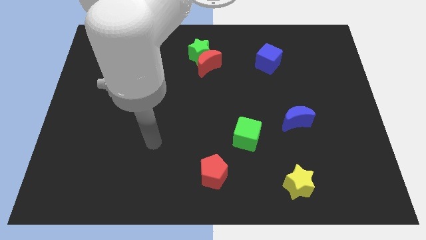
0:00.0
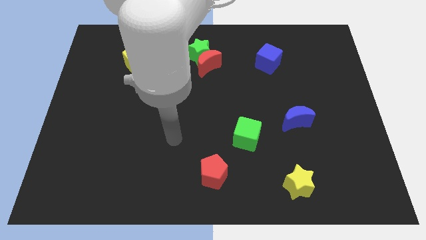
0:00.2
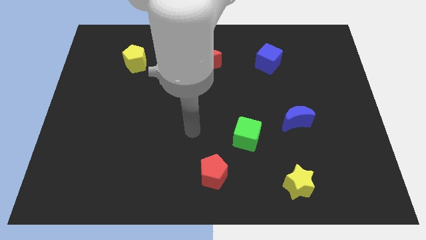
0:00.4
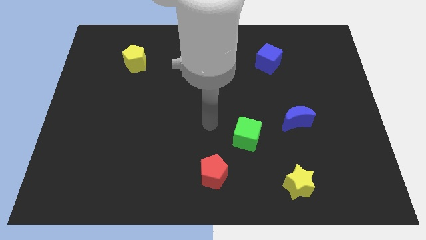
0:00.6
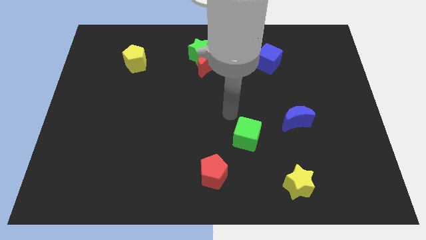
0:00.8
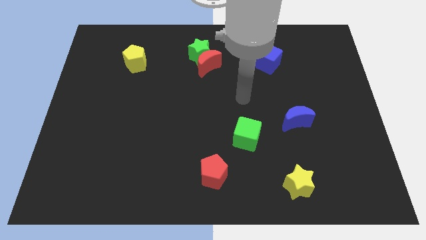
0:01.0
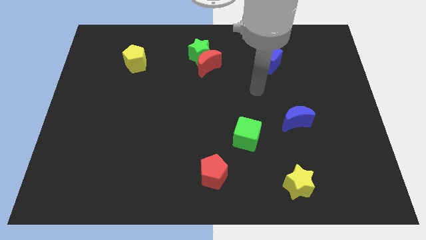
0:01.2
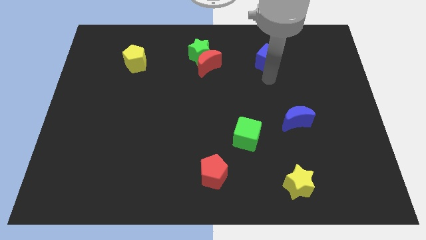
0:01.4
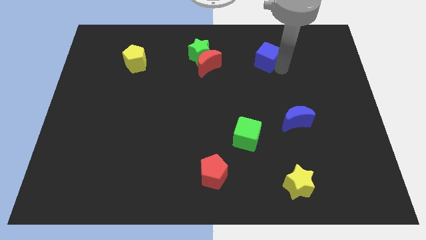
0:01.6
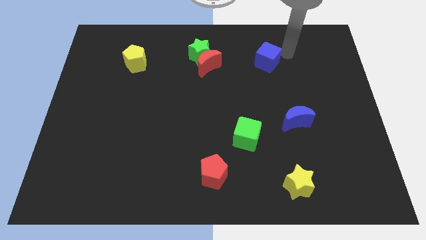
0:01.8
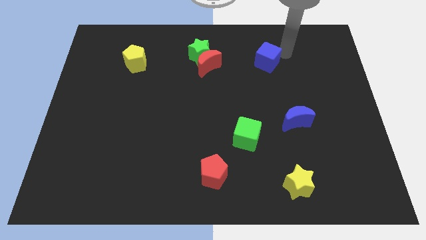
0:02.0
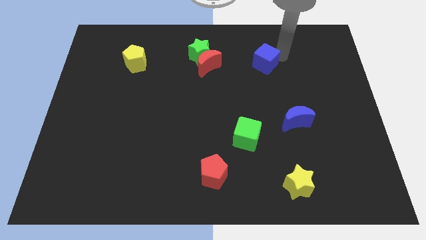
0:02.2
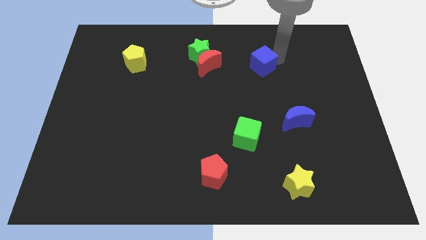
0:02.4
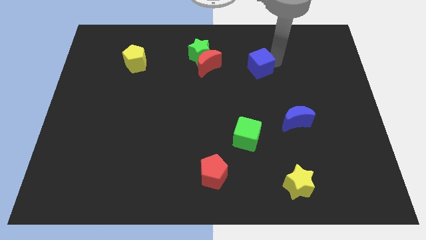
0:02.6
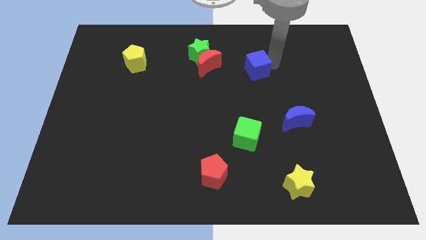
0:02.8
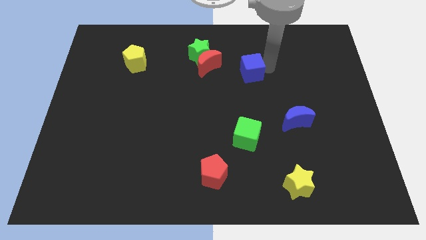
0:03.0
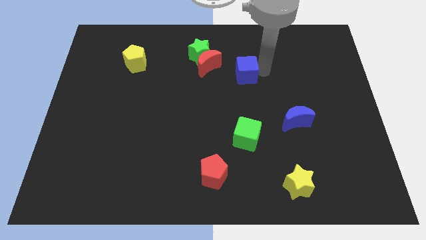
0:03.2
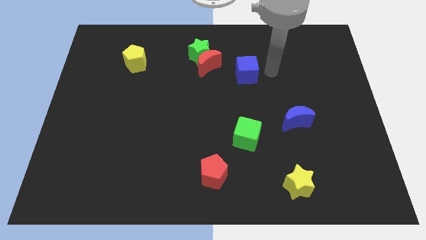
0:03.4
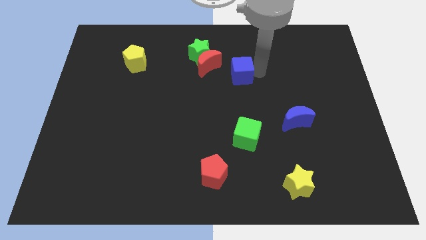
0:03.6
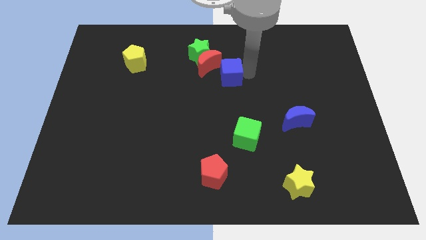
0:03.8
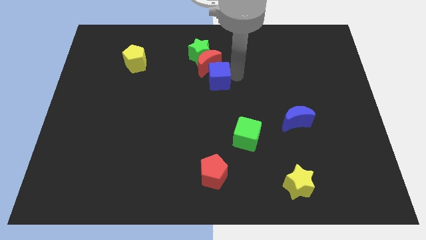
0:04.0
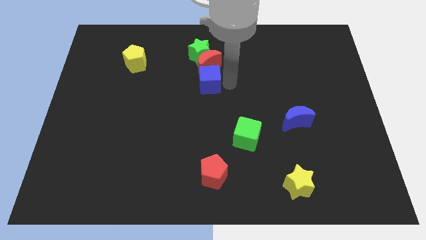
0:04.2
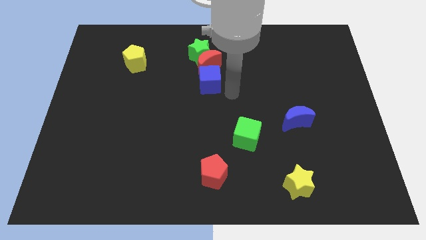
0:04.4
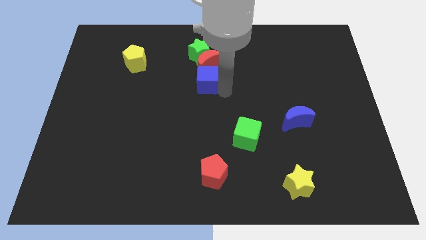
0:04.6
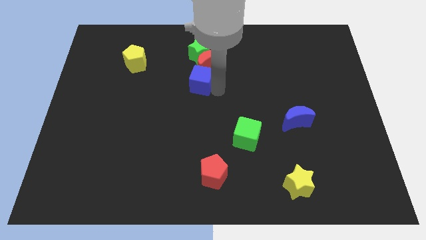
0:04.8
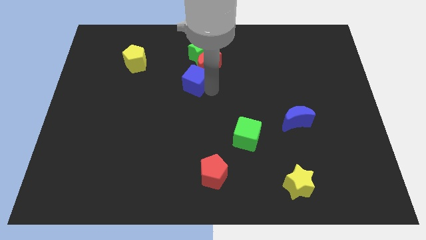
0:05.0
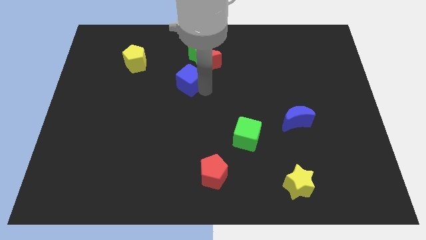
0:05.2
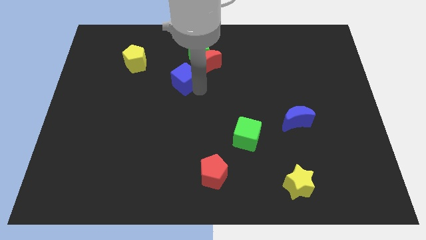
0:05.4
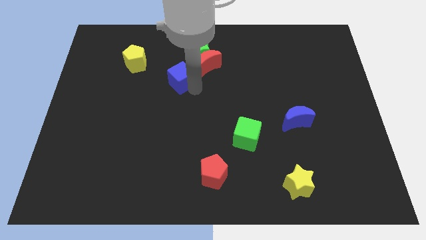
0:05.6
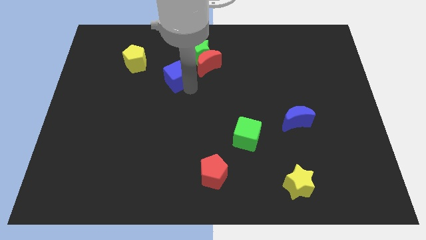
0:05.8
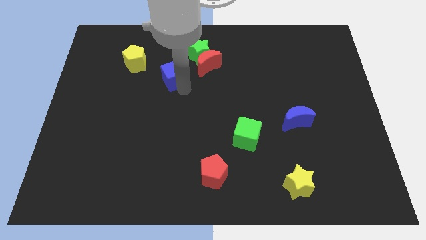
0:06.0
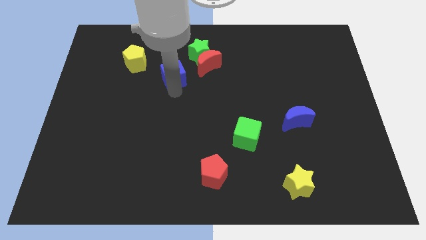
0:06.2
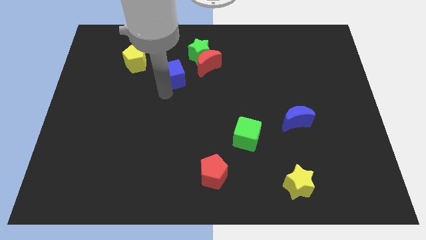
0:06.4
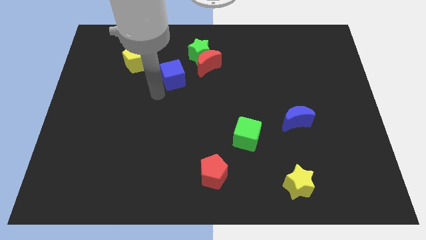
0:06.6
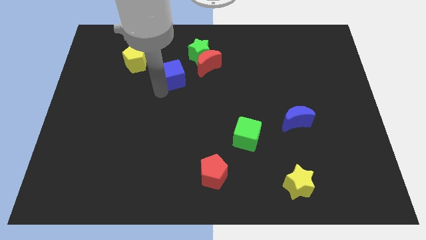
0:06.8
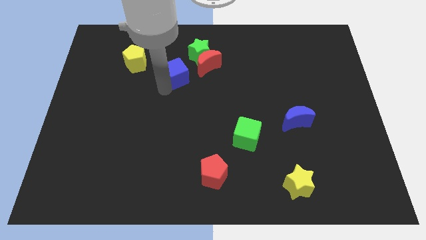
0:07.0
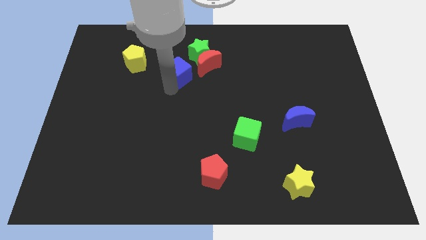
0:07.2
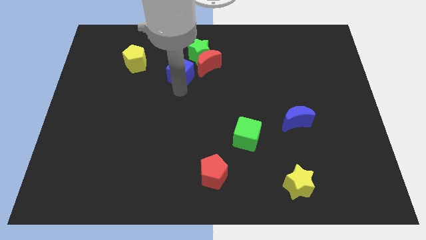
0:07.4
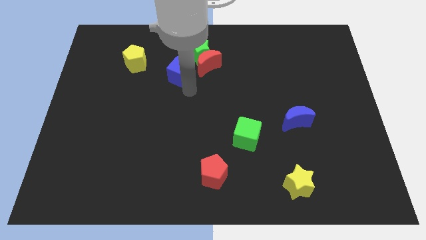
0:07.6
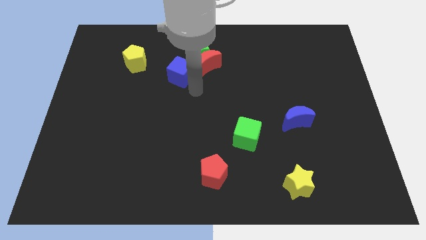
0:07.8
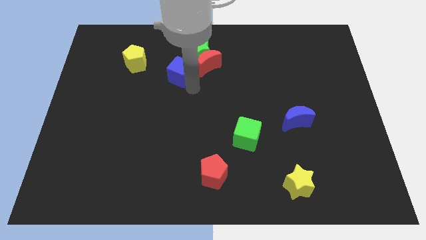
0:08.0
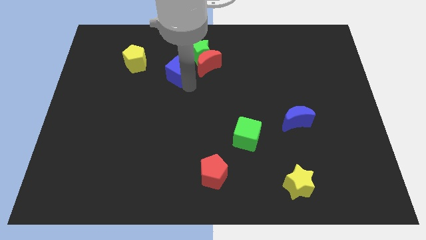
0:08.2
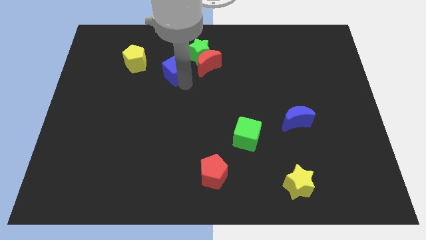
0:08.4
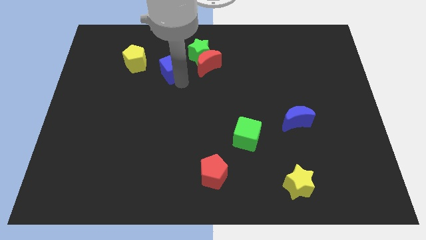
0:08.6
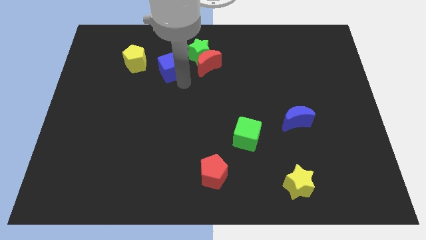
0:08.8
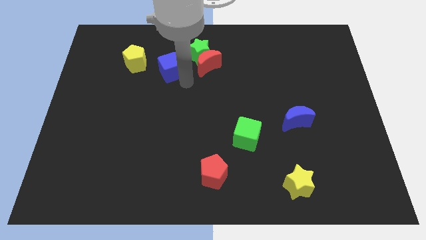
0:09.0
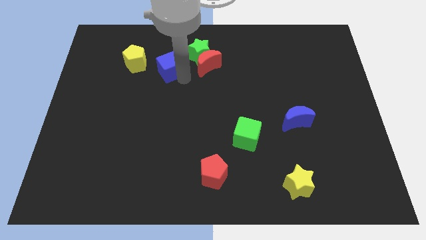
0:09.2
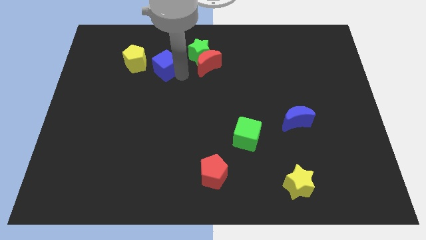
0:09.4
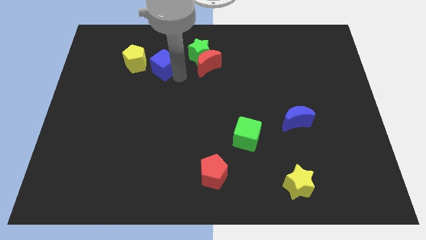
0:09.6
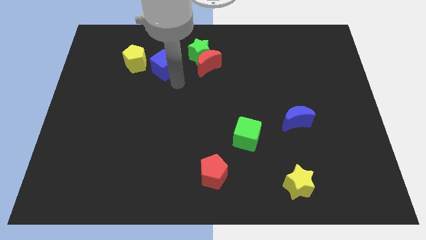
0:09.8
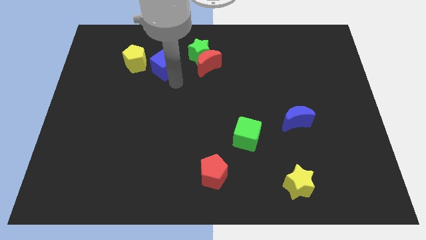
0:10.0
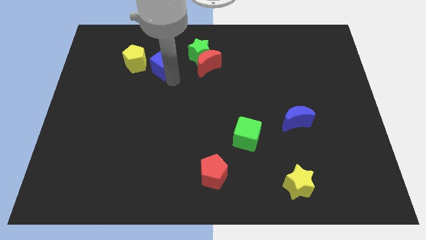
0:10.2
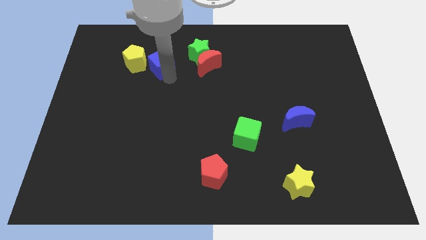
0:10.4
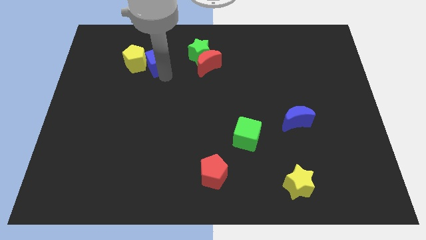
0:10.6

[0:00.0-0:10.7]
slide the blue cube towards the yellow pentagon

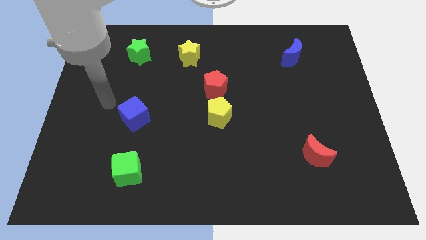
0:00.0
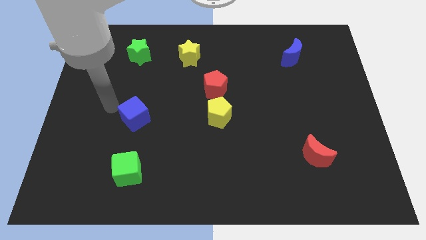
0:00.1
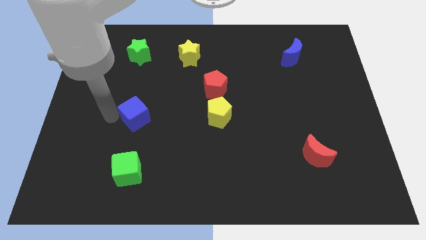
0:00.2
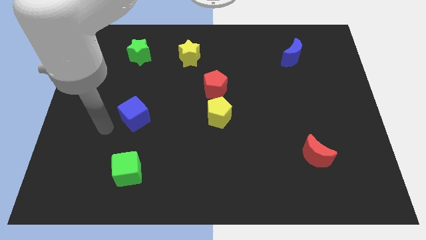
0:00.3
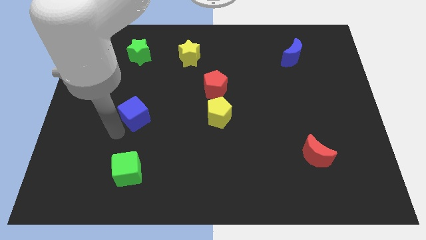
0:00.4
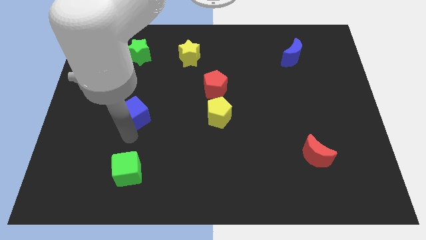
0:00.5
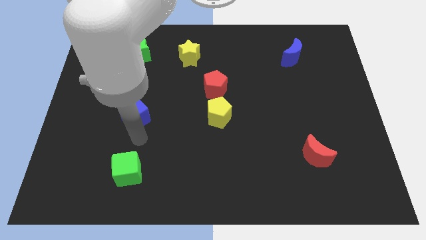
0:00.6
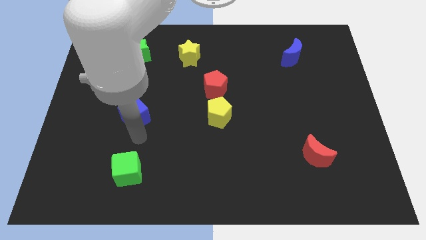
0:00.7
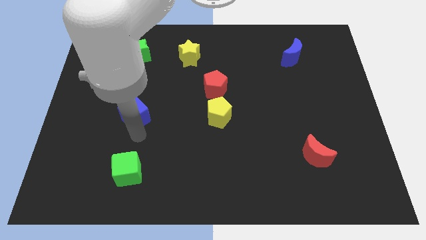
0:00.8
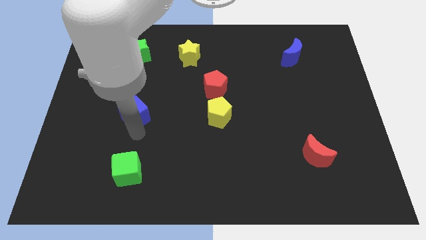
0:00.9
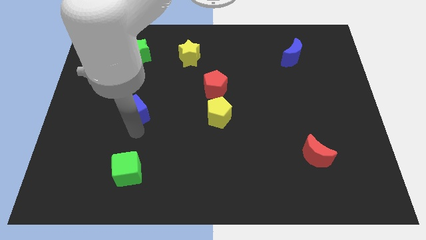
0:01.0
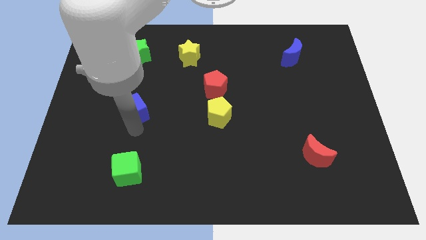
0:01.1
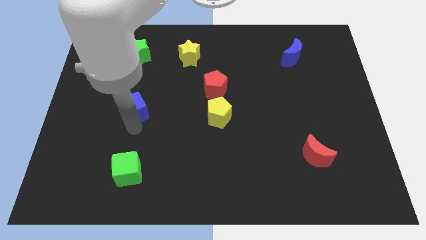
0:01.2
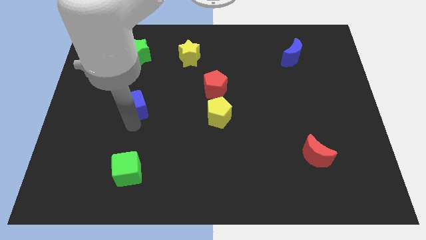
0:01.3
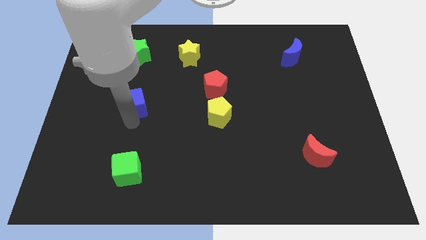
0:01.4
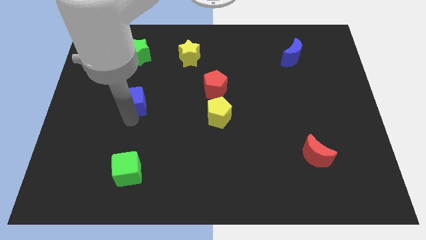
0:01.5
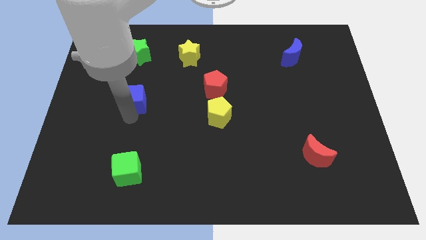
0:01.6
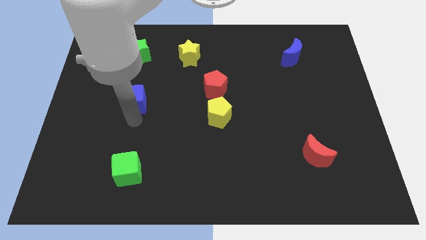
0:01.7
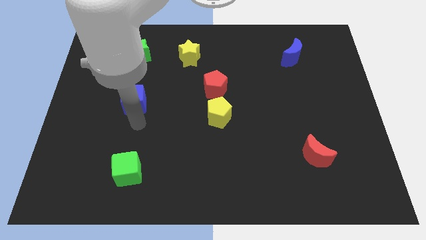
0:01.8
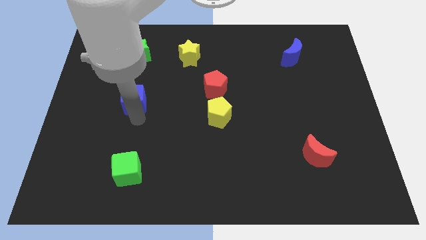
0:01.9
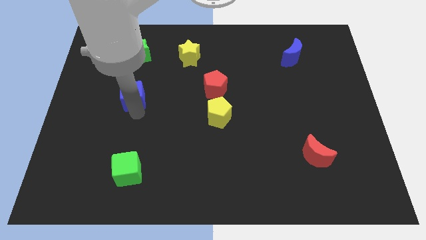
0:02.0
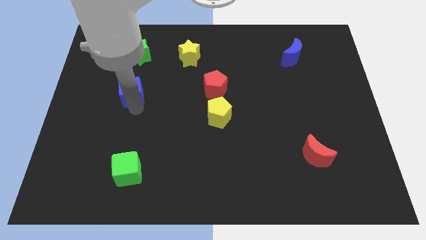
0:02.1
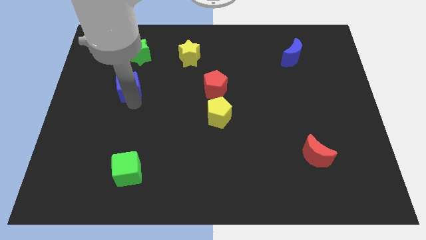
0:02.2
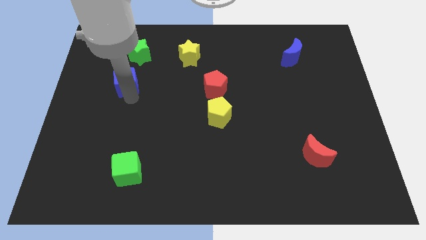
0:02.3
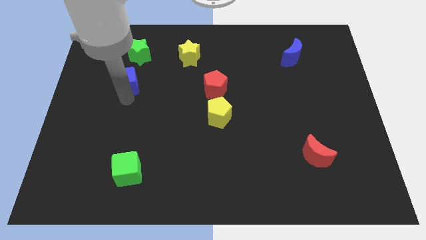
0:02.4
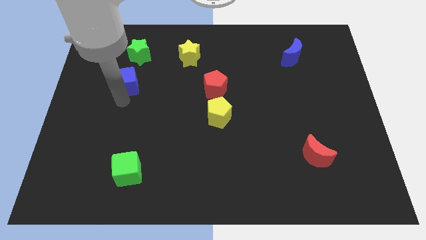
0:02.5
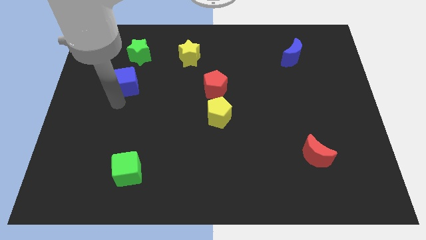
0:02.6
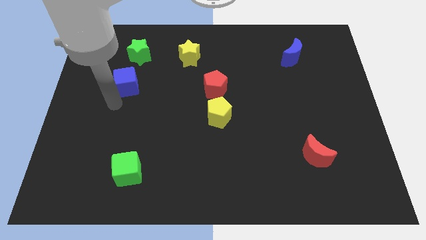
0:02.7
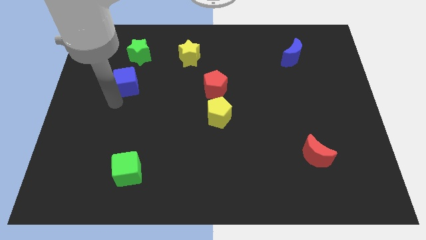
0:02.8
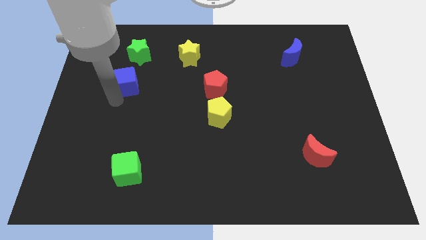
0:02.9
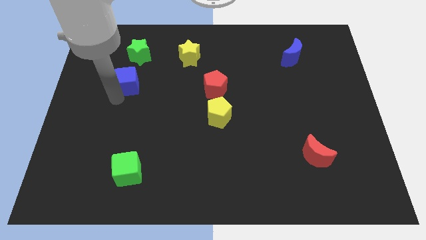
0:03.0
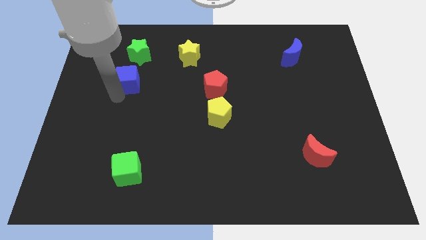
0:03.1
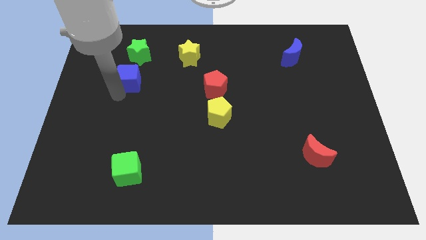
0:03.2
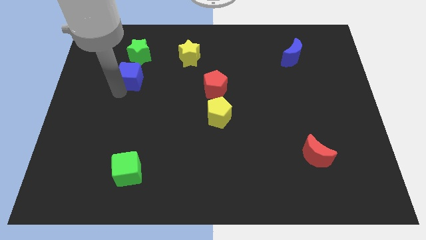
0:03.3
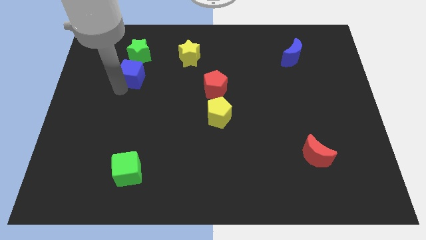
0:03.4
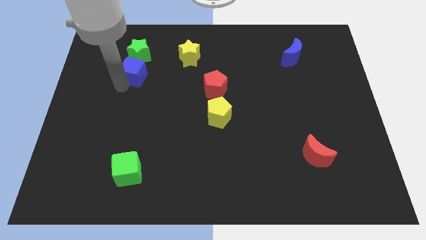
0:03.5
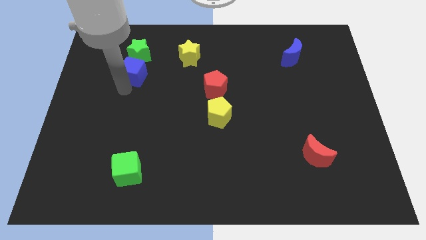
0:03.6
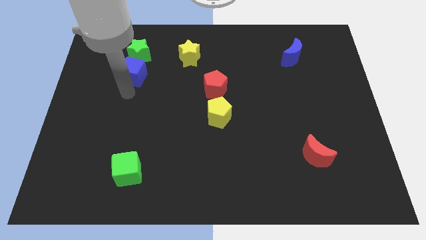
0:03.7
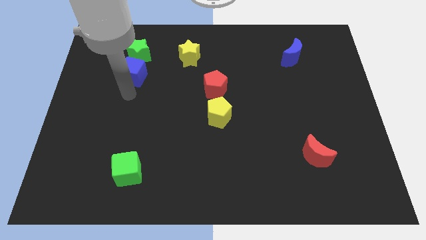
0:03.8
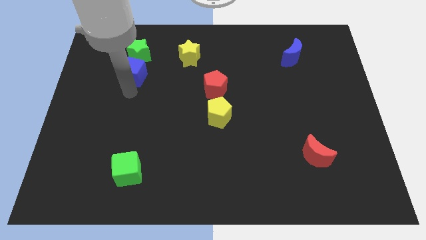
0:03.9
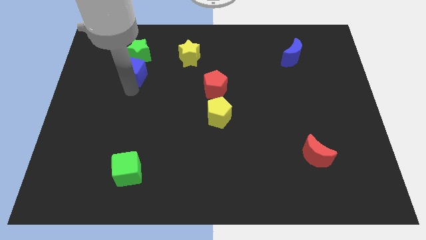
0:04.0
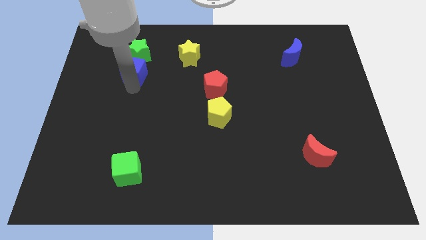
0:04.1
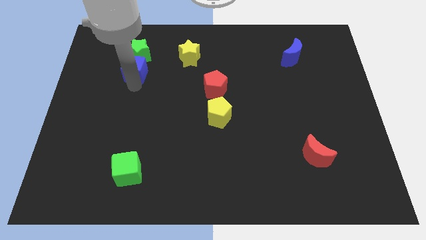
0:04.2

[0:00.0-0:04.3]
put the blue cube towards the green star
